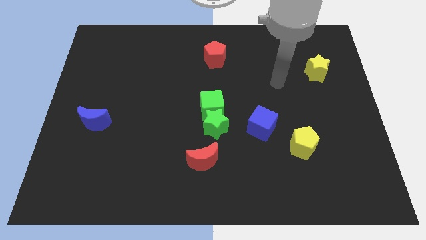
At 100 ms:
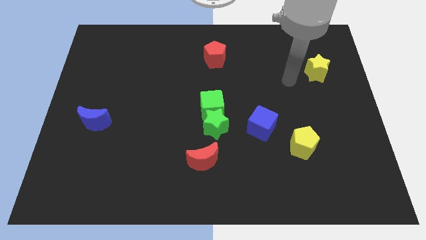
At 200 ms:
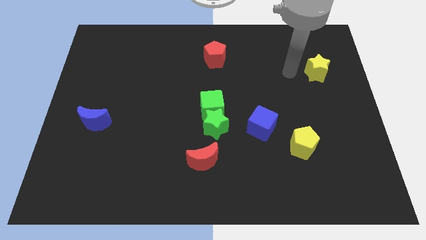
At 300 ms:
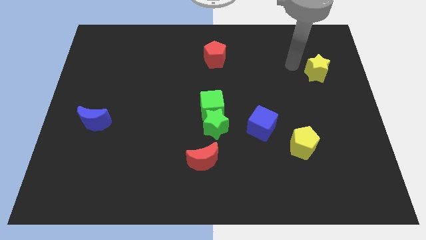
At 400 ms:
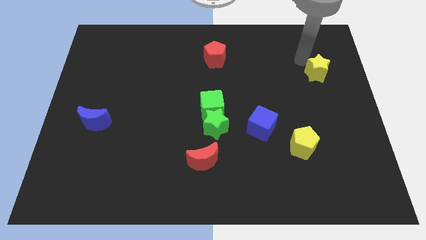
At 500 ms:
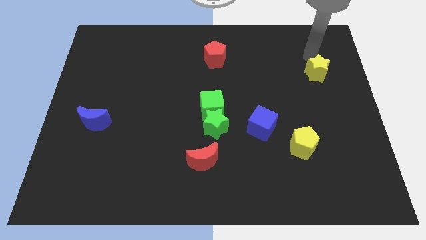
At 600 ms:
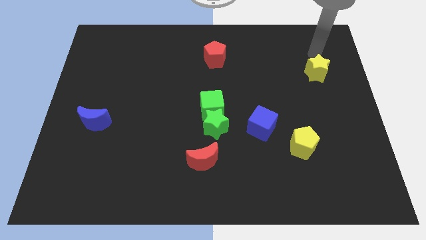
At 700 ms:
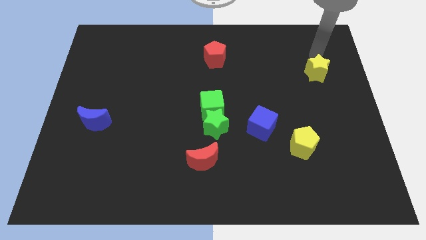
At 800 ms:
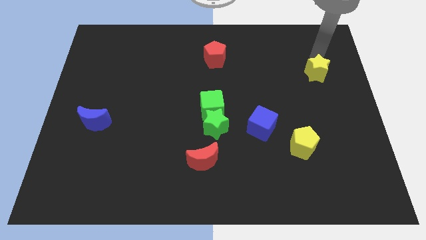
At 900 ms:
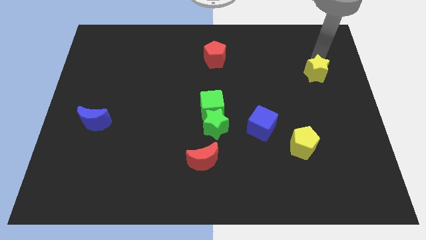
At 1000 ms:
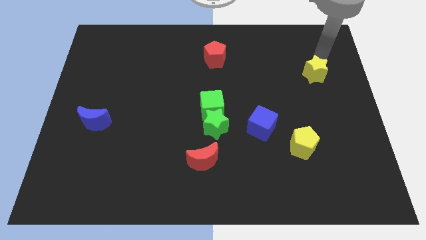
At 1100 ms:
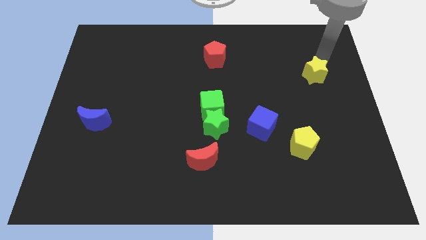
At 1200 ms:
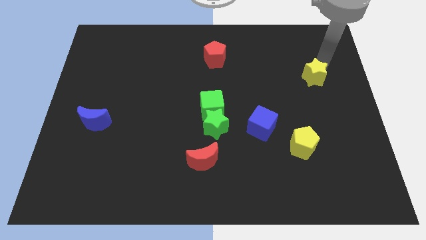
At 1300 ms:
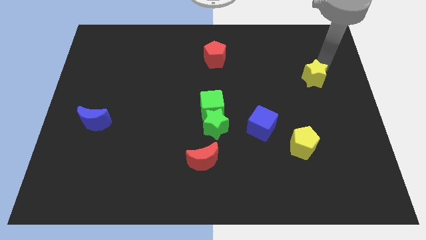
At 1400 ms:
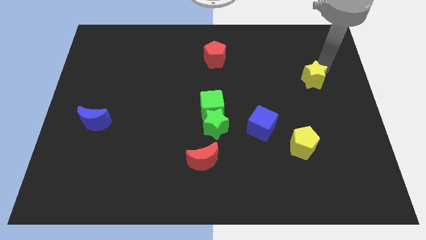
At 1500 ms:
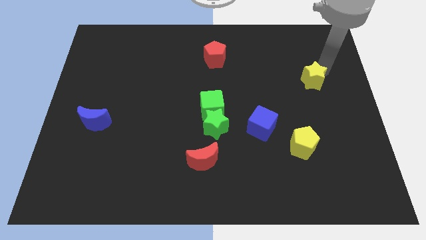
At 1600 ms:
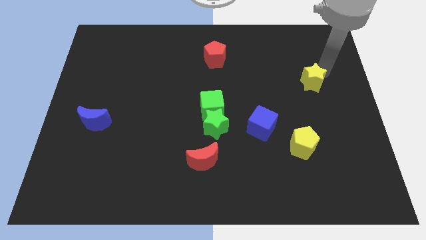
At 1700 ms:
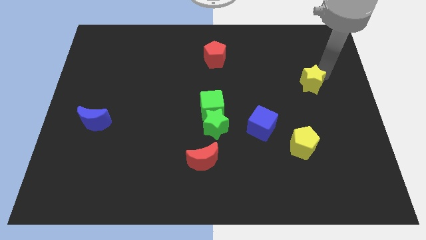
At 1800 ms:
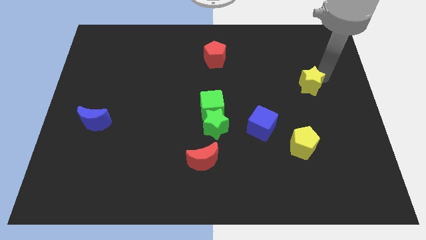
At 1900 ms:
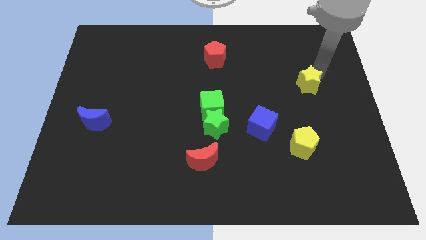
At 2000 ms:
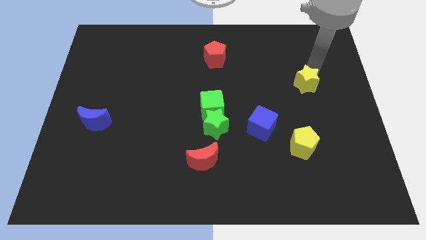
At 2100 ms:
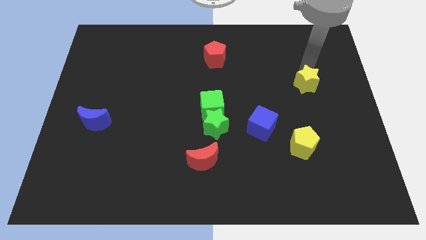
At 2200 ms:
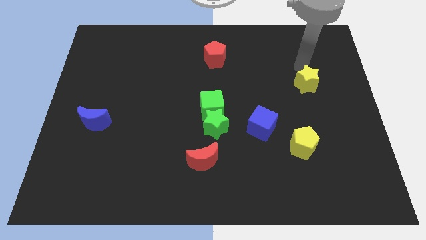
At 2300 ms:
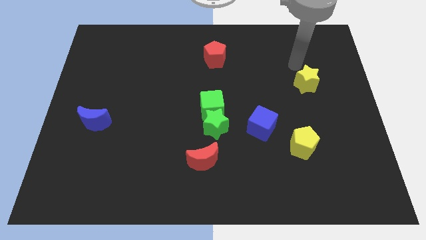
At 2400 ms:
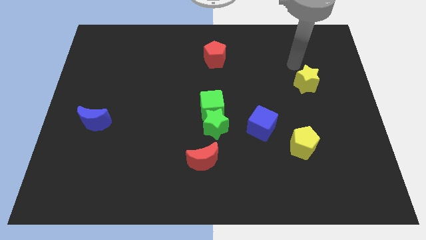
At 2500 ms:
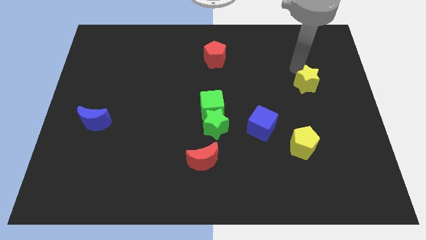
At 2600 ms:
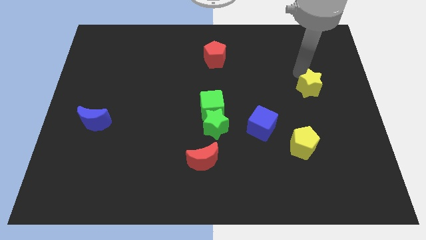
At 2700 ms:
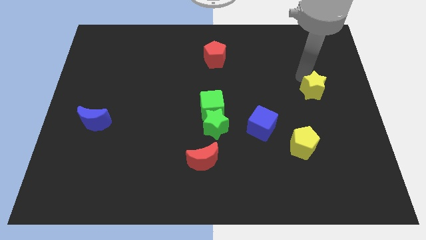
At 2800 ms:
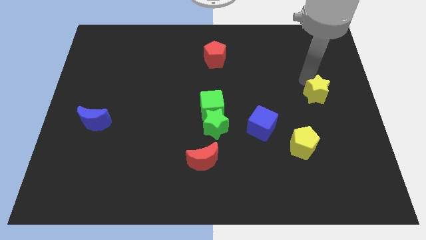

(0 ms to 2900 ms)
move the yellow star down a little bit

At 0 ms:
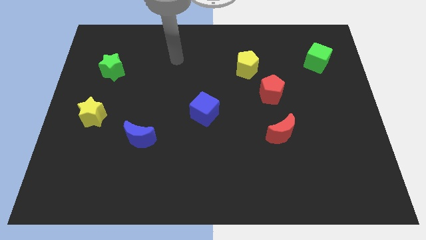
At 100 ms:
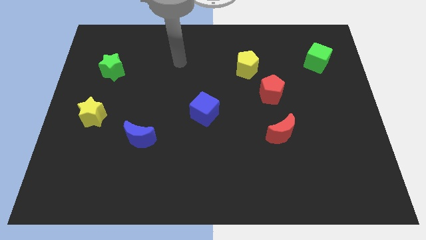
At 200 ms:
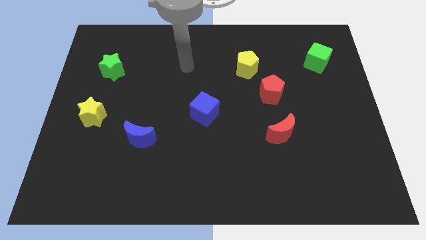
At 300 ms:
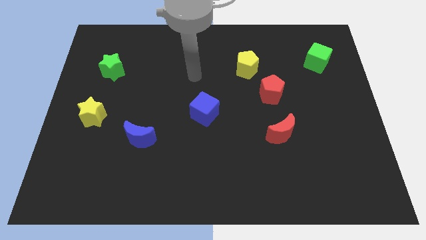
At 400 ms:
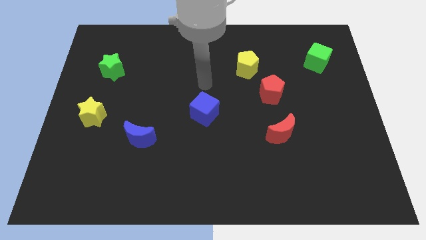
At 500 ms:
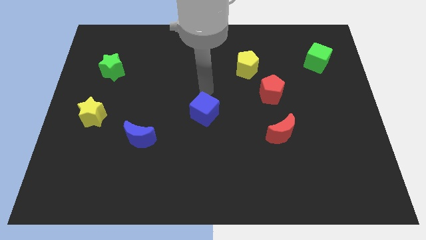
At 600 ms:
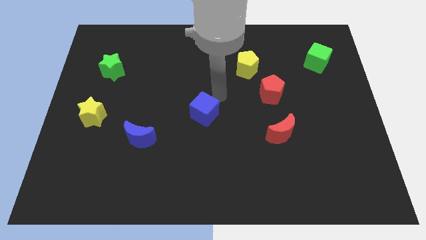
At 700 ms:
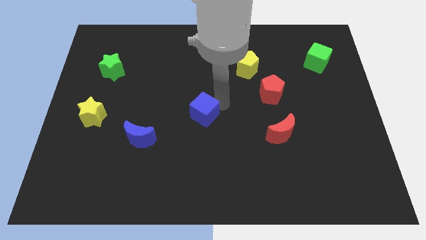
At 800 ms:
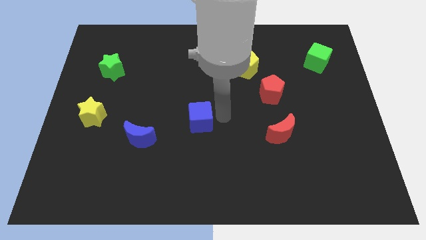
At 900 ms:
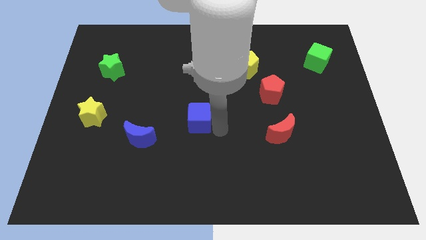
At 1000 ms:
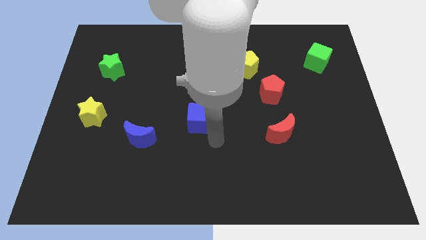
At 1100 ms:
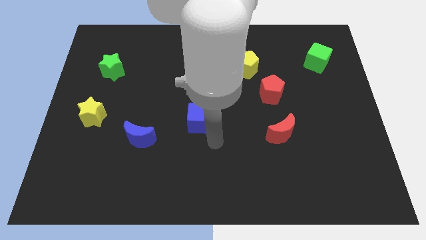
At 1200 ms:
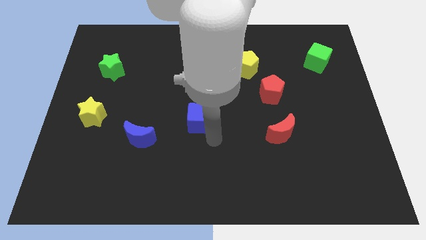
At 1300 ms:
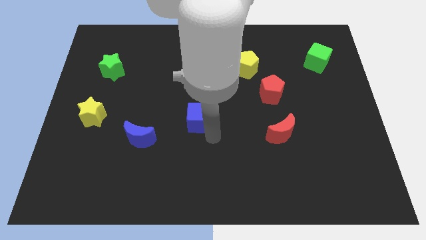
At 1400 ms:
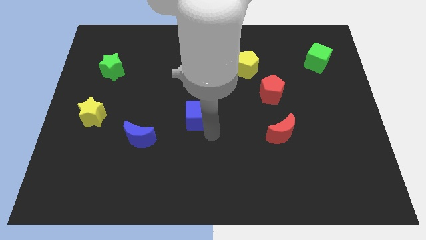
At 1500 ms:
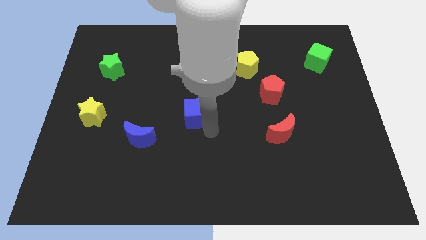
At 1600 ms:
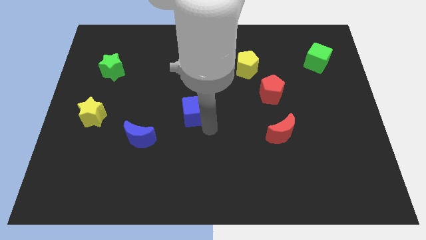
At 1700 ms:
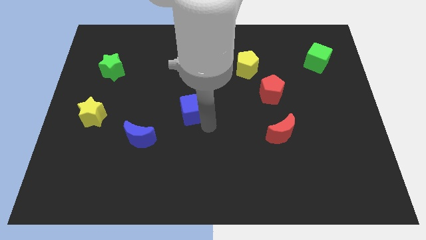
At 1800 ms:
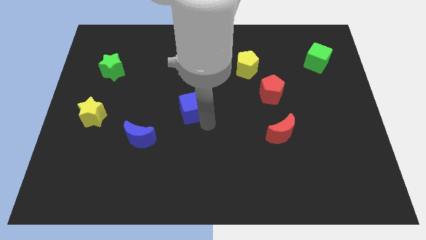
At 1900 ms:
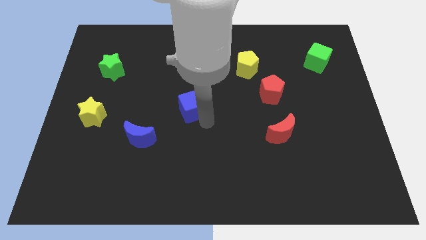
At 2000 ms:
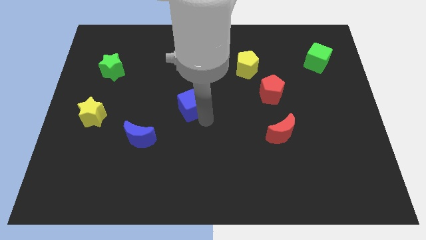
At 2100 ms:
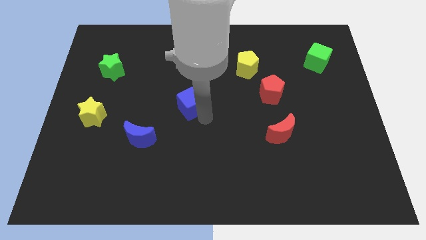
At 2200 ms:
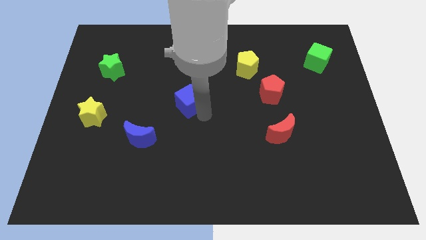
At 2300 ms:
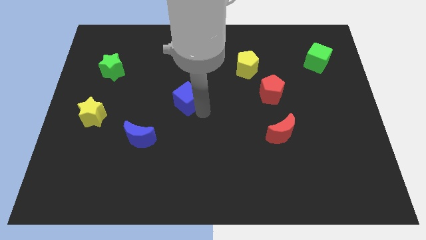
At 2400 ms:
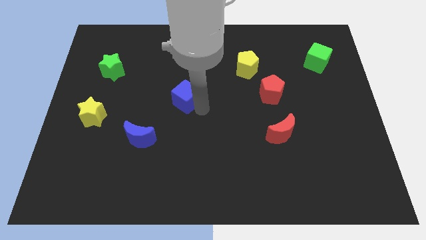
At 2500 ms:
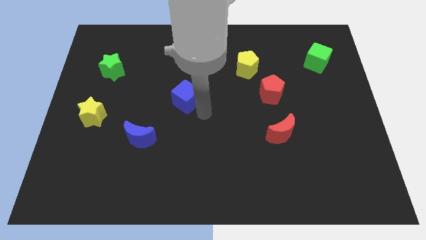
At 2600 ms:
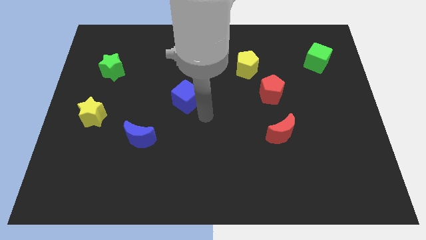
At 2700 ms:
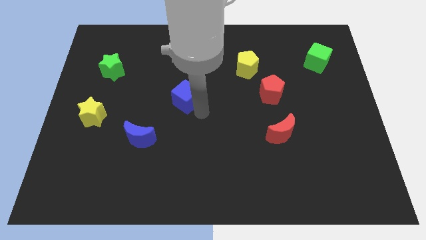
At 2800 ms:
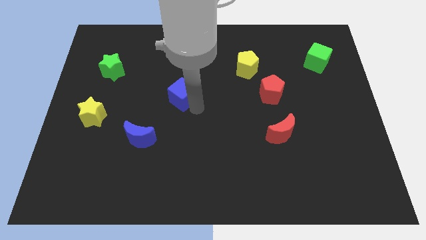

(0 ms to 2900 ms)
slide the blue cube somewhat up and then to the left

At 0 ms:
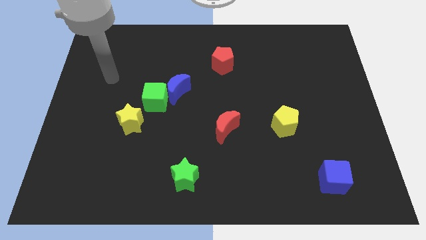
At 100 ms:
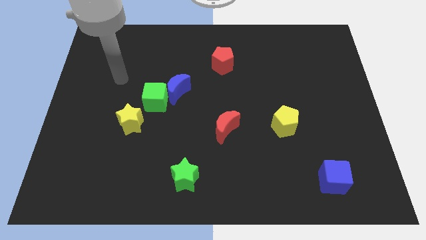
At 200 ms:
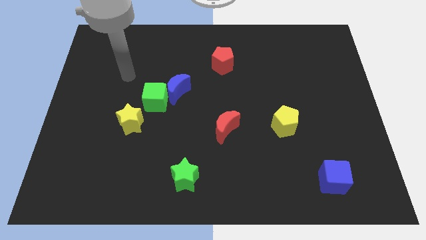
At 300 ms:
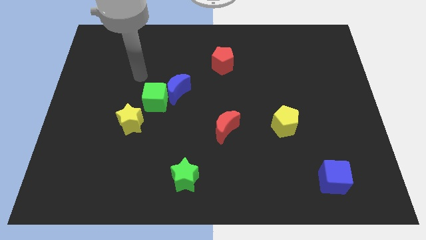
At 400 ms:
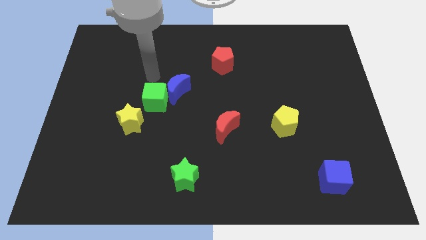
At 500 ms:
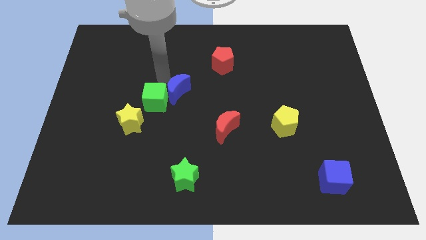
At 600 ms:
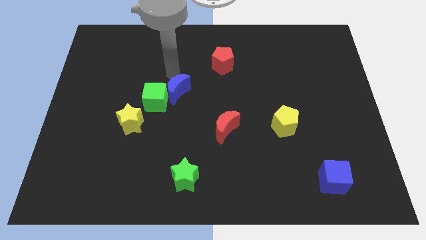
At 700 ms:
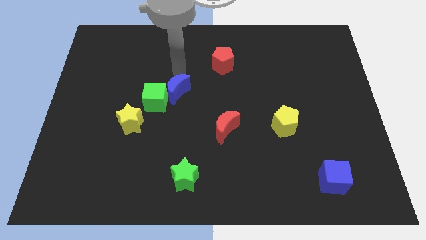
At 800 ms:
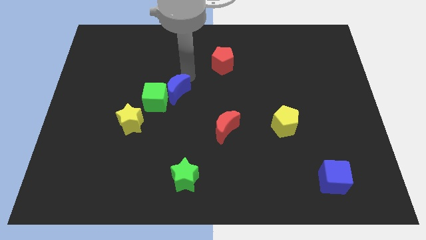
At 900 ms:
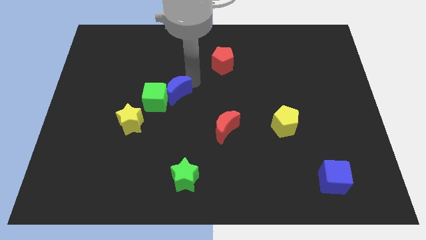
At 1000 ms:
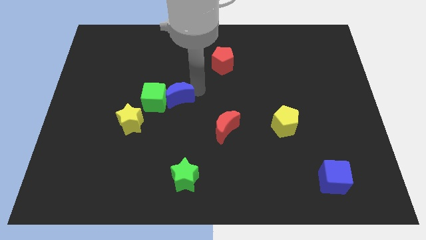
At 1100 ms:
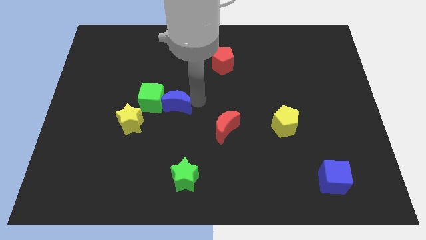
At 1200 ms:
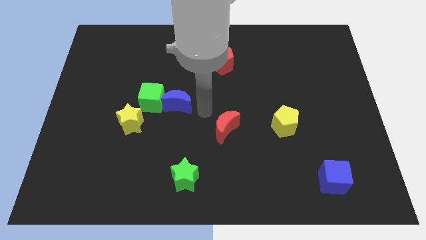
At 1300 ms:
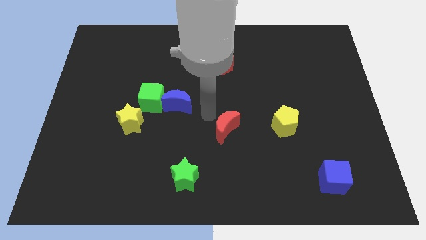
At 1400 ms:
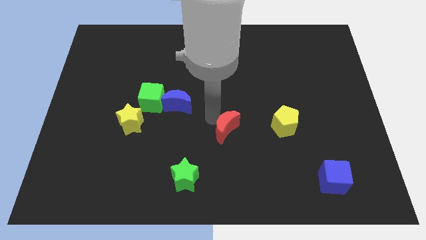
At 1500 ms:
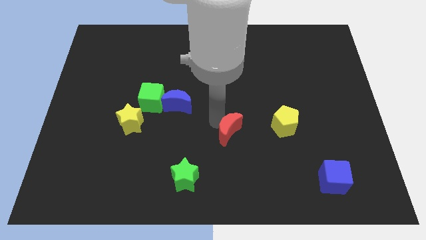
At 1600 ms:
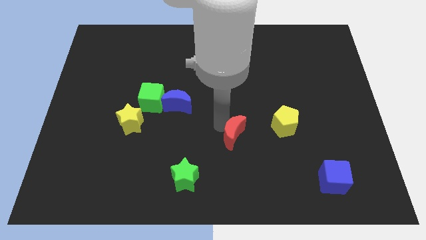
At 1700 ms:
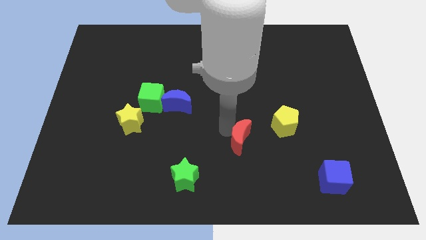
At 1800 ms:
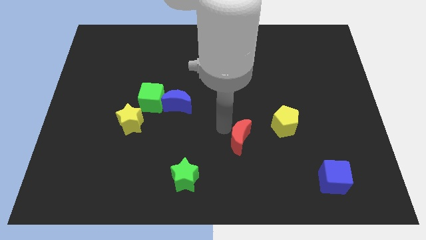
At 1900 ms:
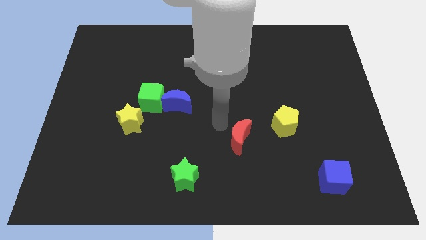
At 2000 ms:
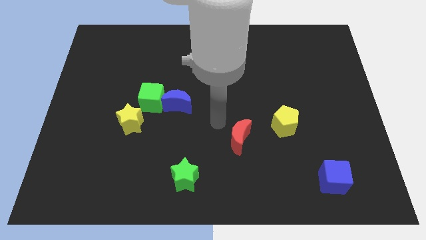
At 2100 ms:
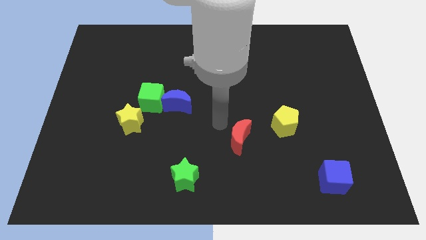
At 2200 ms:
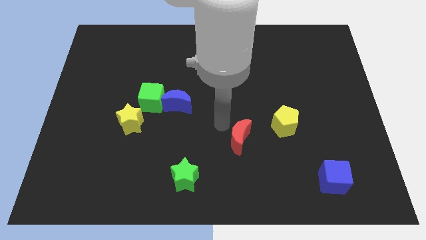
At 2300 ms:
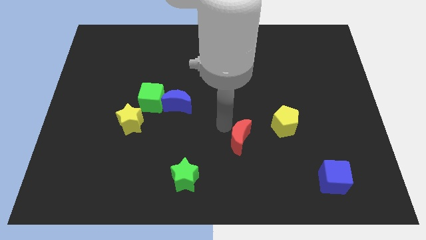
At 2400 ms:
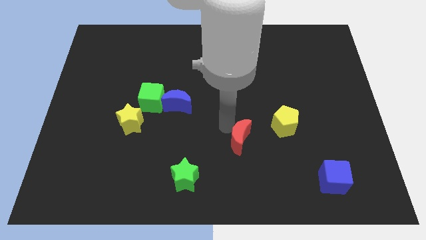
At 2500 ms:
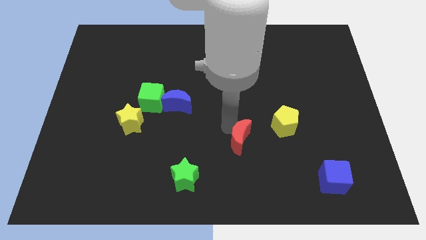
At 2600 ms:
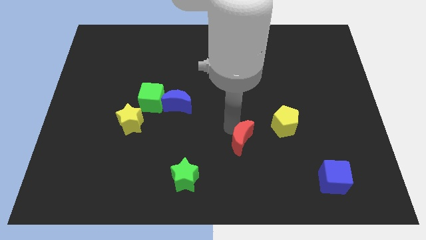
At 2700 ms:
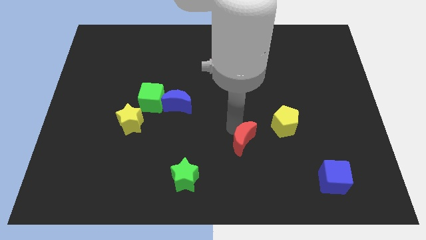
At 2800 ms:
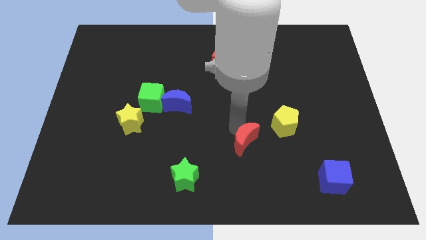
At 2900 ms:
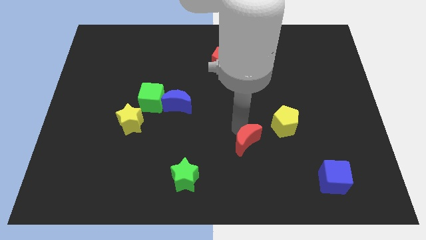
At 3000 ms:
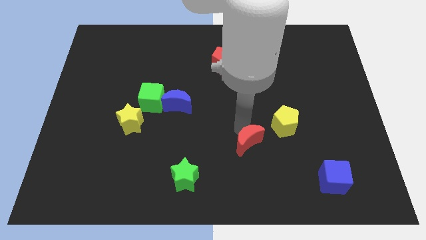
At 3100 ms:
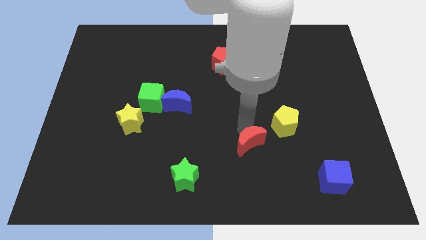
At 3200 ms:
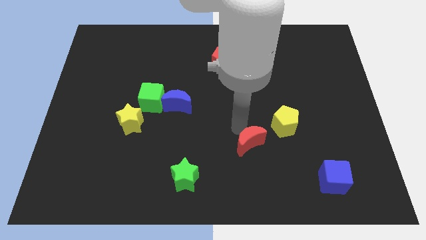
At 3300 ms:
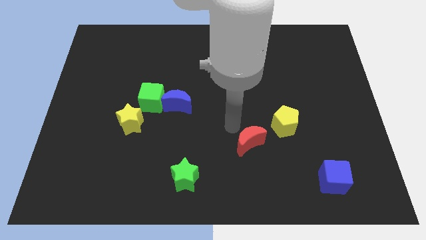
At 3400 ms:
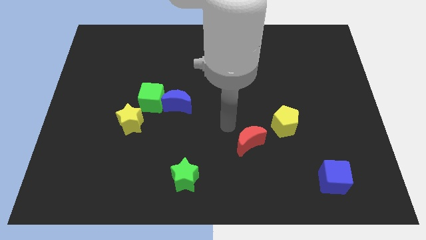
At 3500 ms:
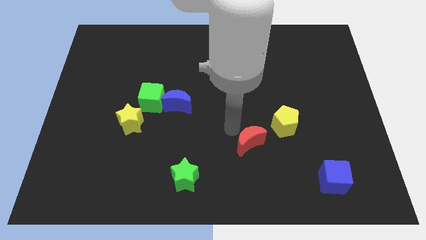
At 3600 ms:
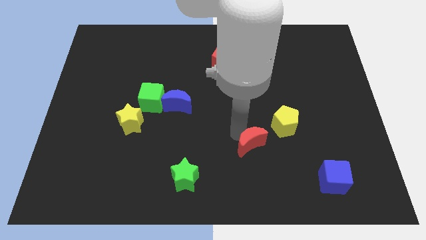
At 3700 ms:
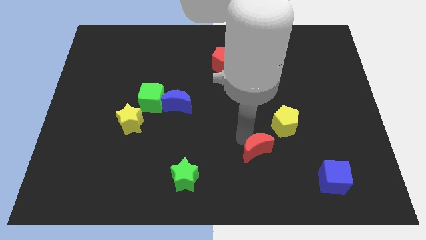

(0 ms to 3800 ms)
slightly slide the red moon down and to the right
